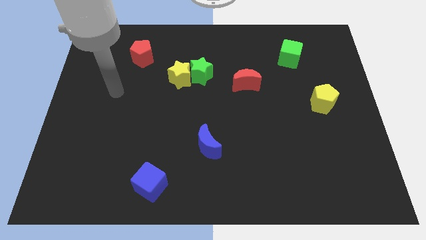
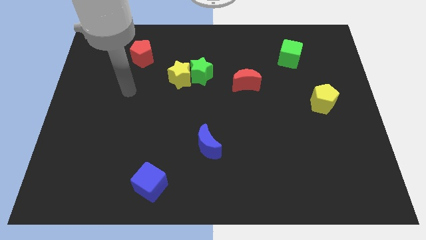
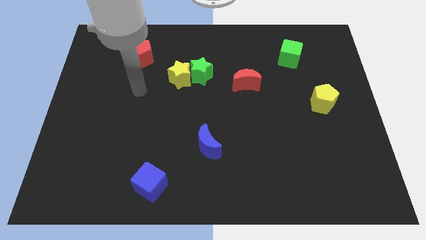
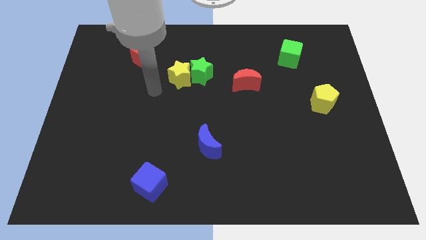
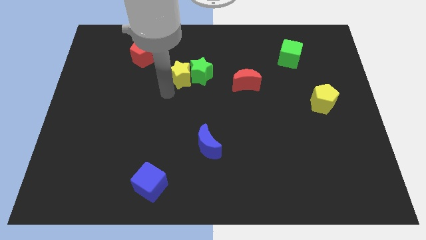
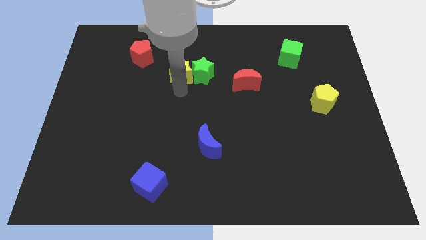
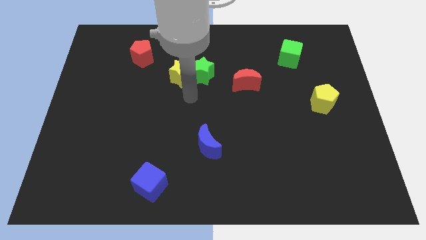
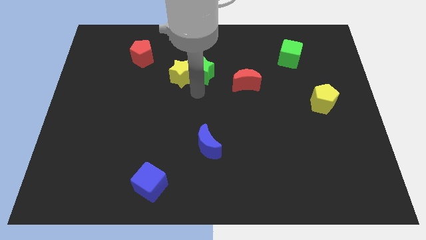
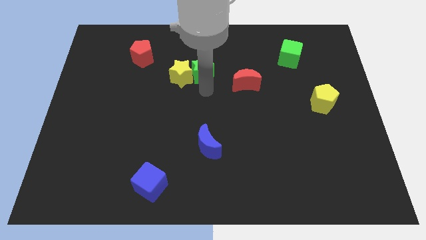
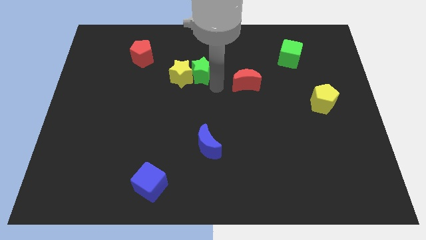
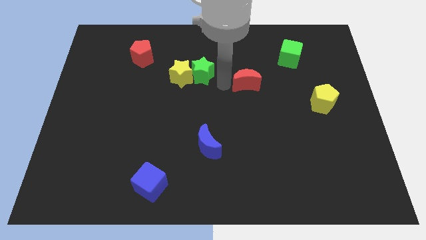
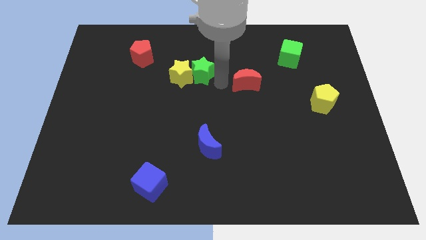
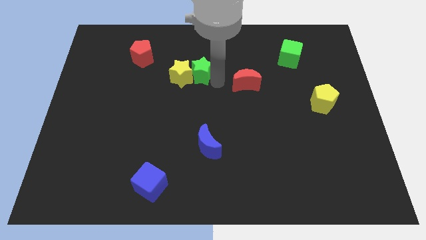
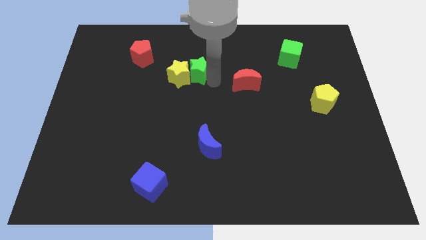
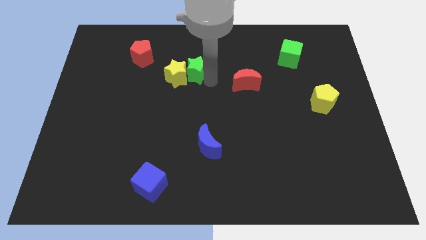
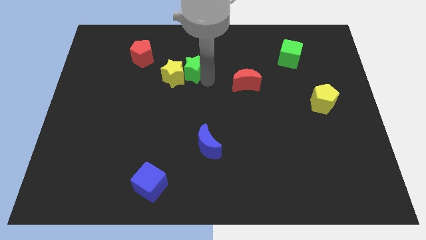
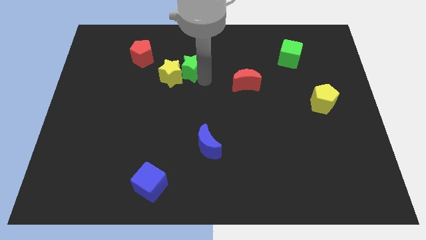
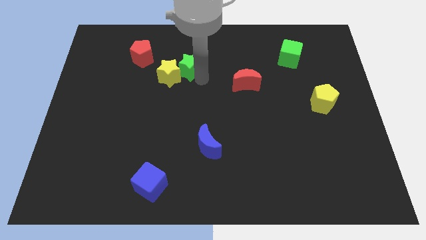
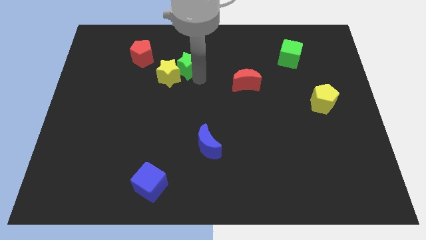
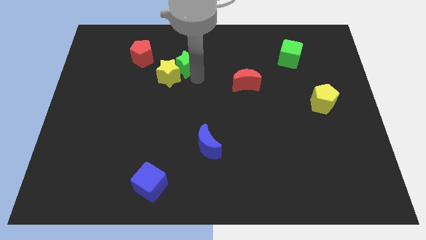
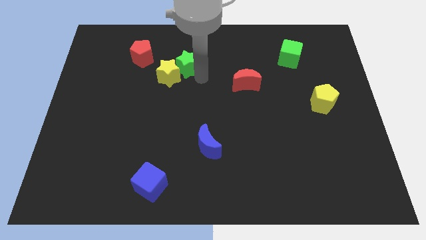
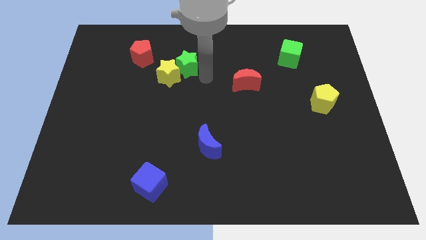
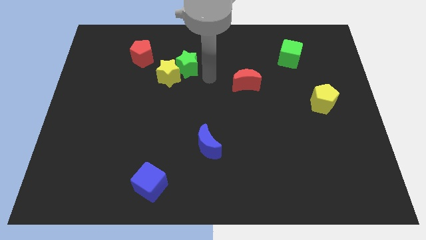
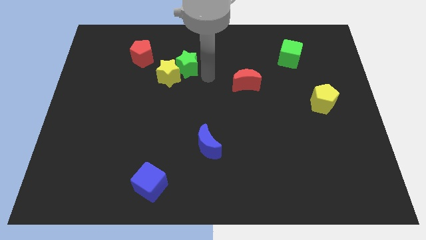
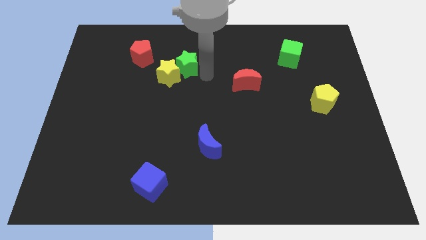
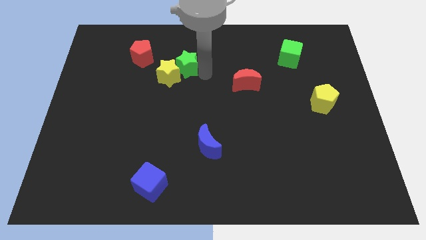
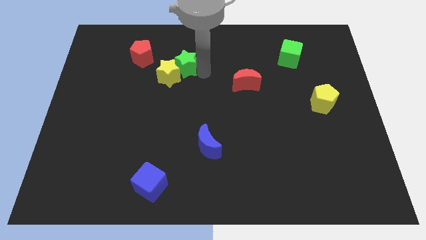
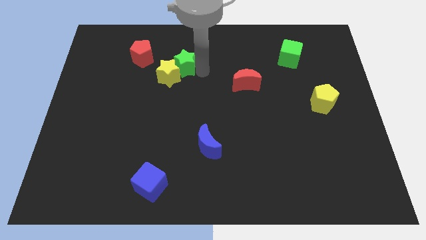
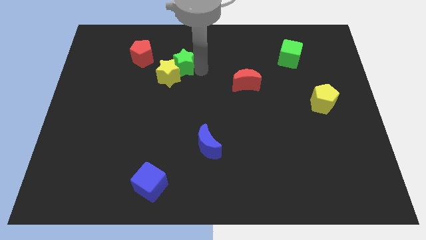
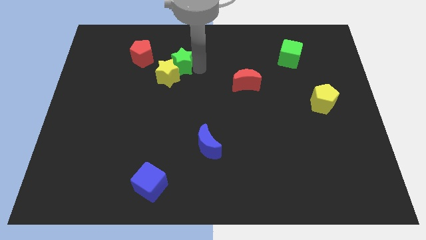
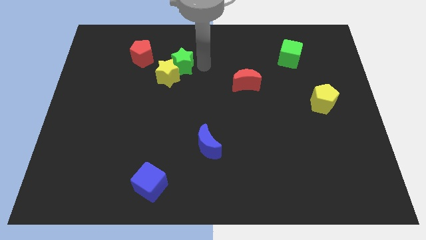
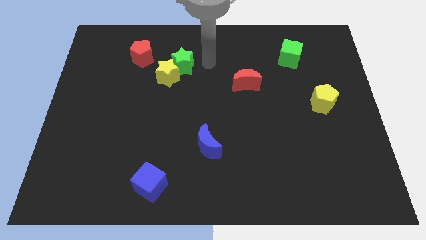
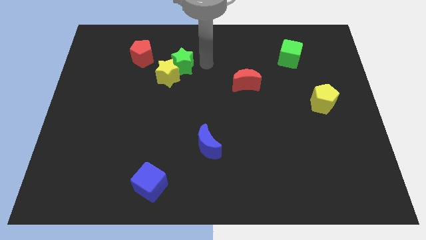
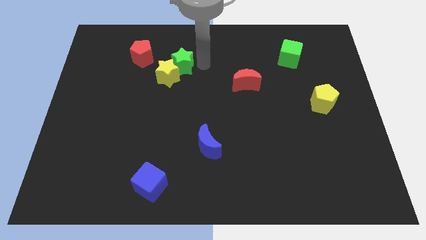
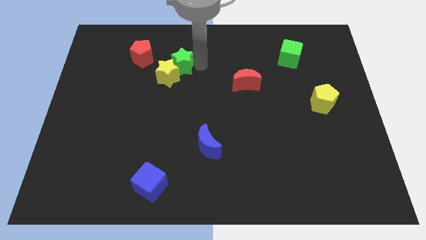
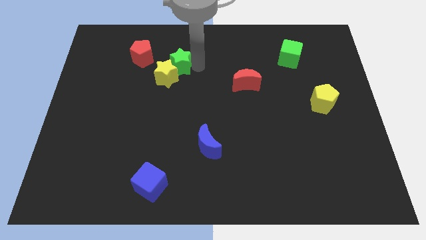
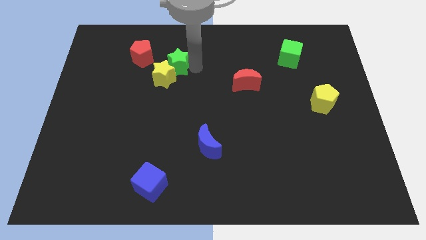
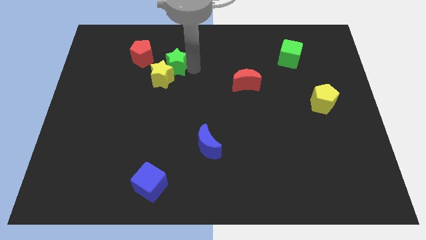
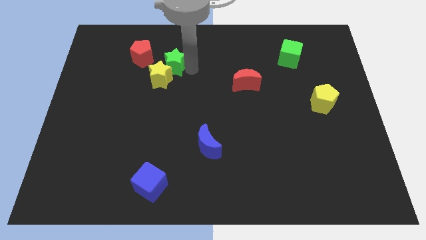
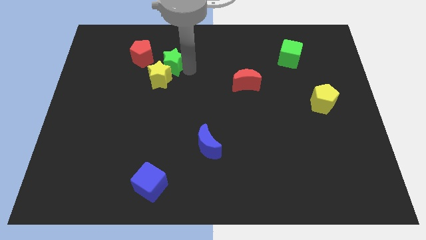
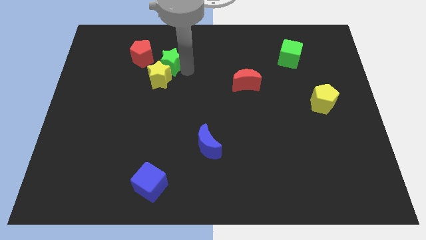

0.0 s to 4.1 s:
slightly slide the green star left

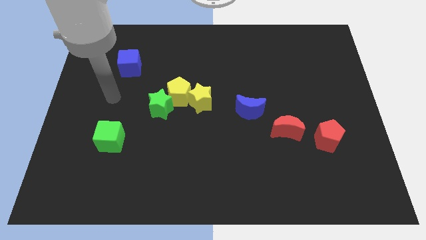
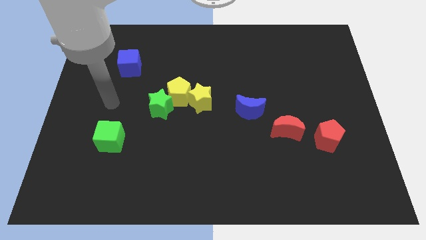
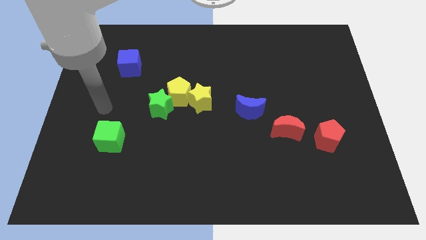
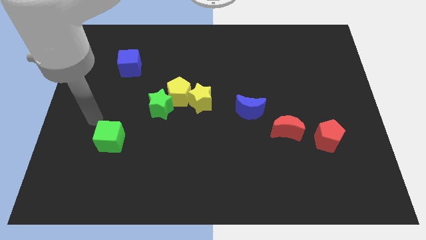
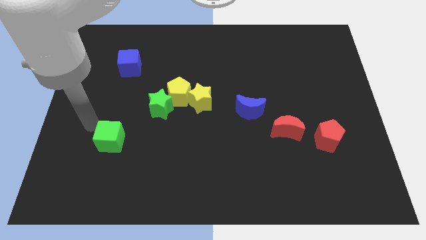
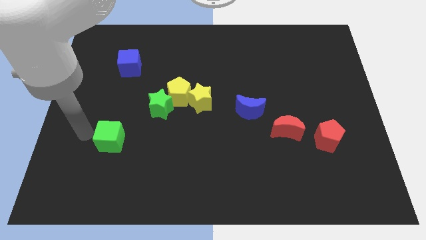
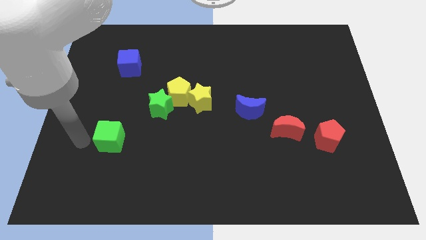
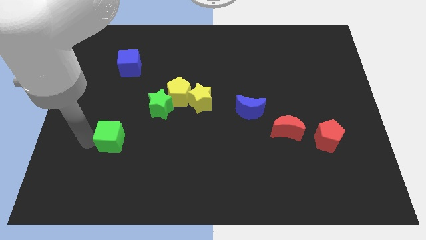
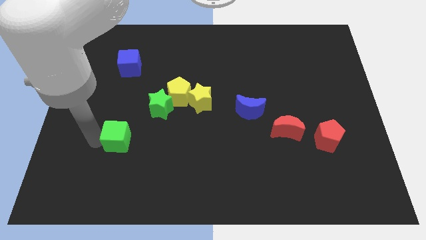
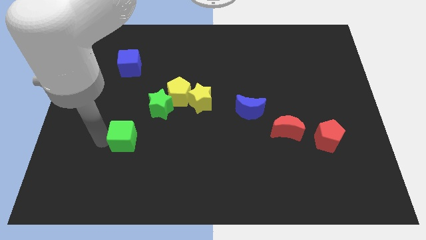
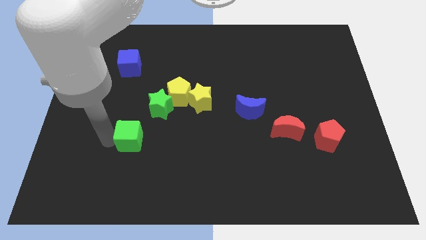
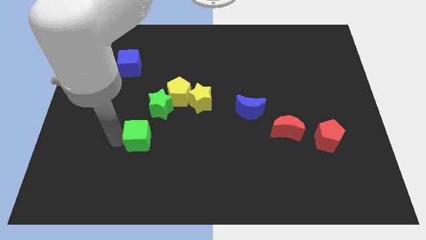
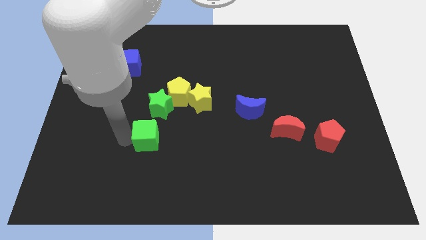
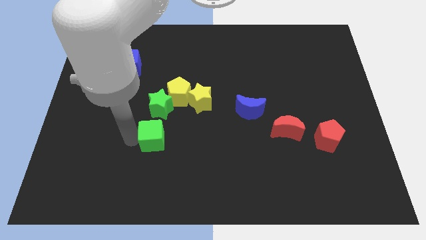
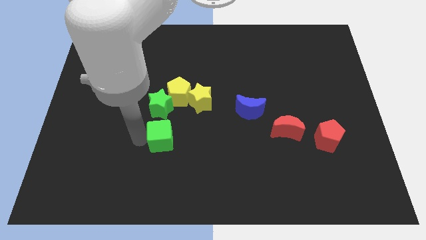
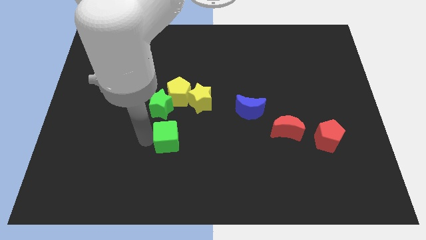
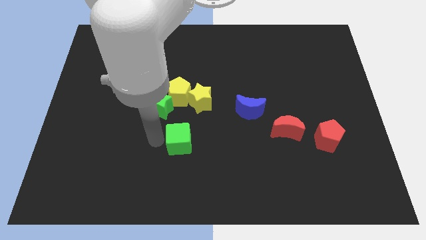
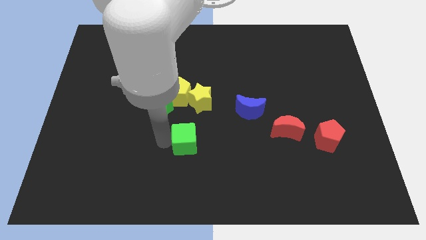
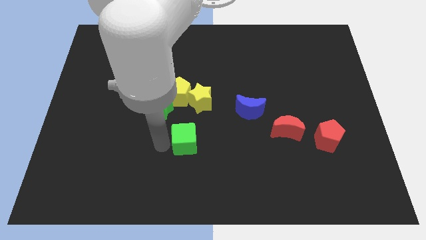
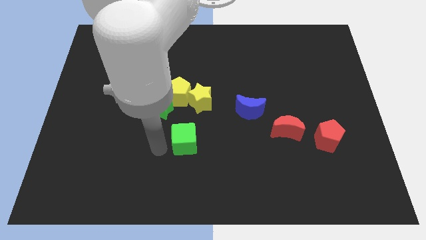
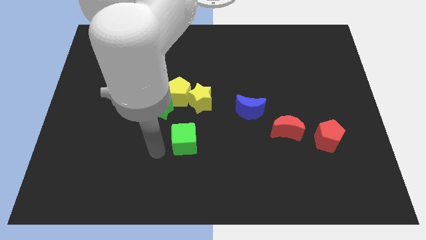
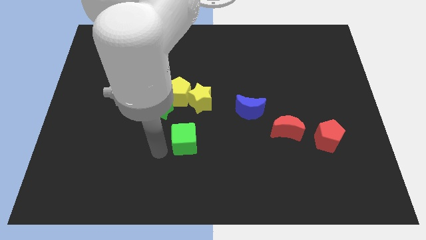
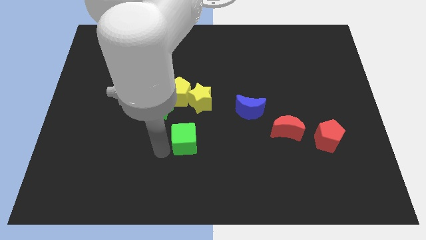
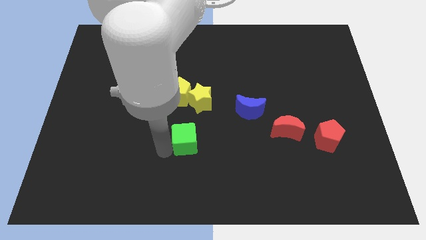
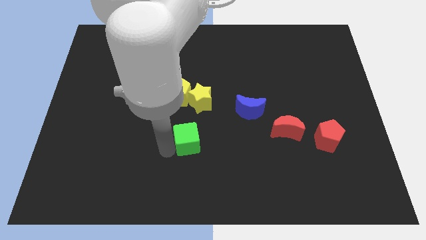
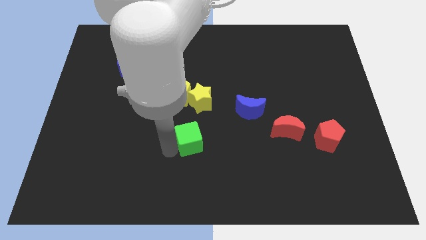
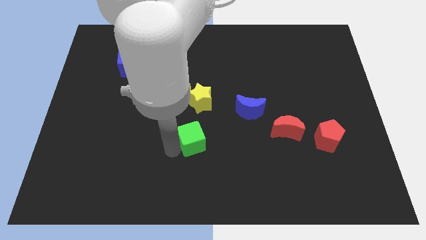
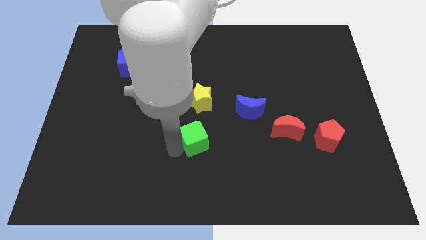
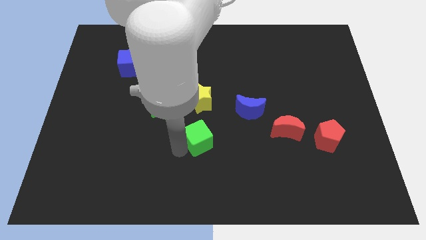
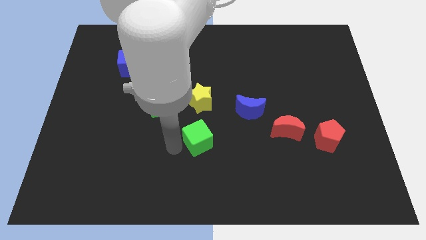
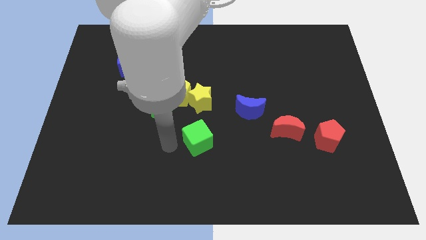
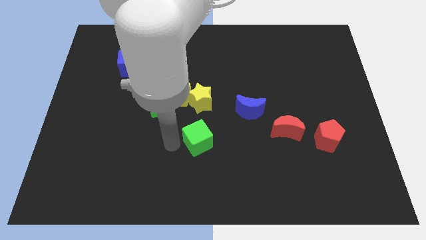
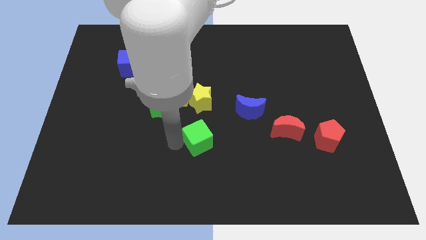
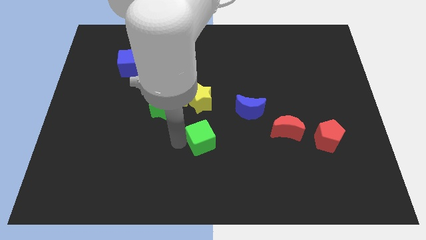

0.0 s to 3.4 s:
slide the green cube to the right

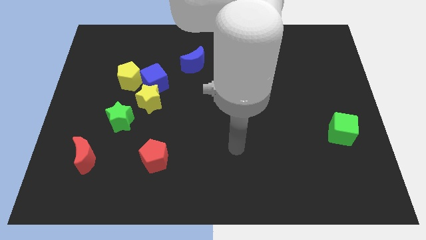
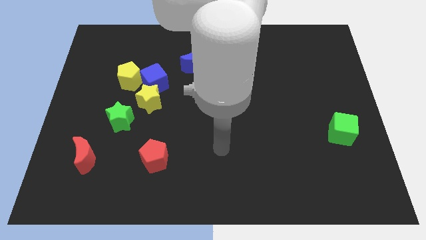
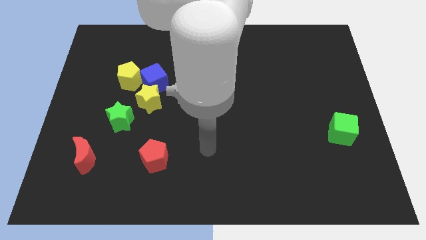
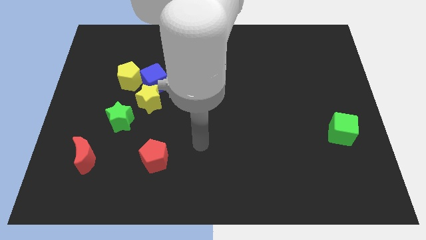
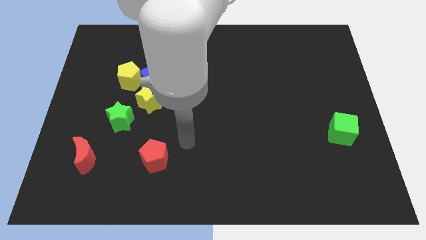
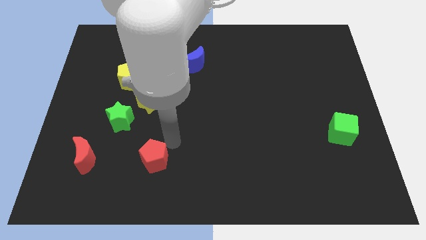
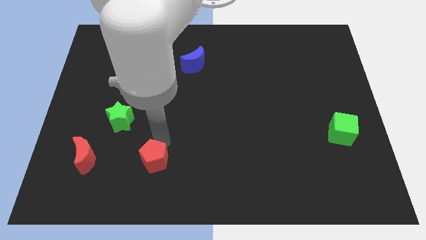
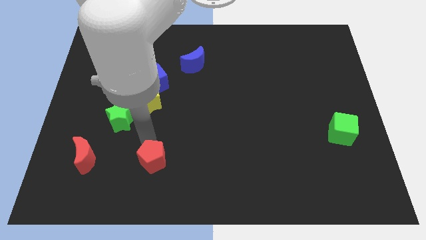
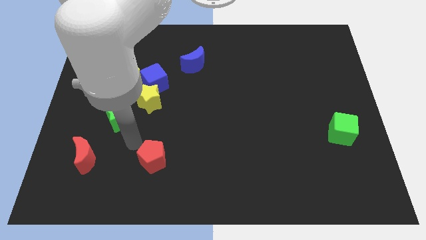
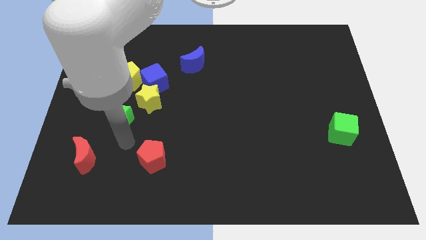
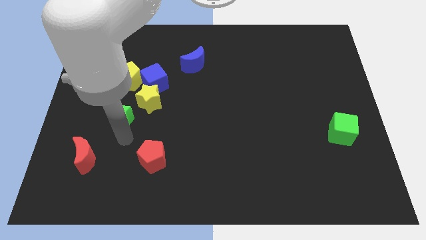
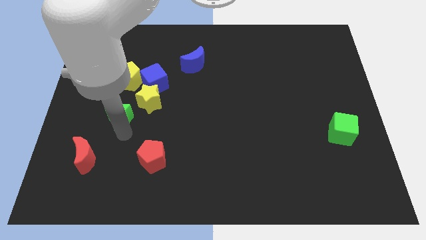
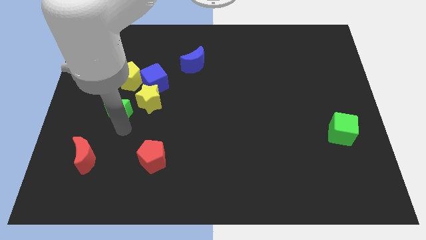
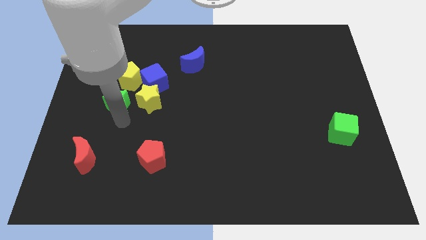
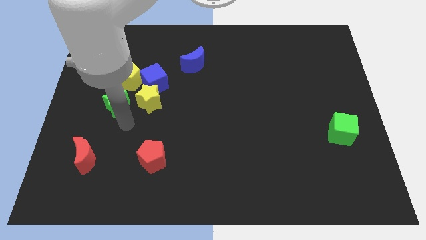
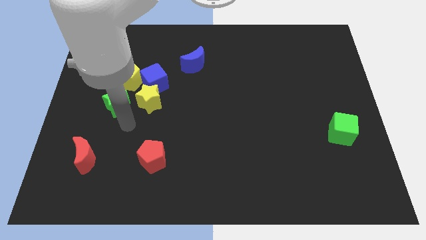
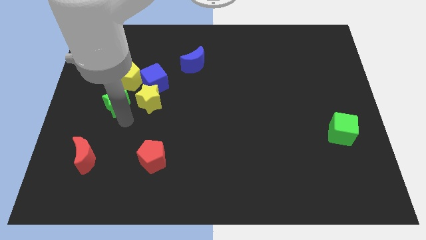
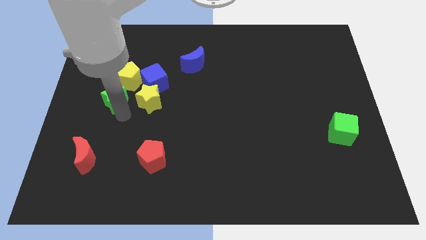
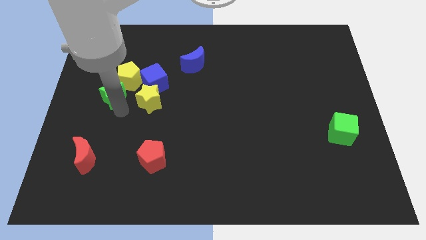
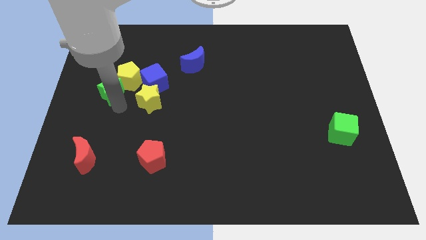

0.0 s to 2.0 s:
push the green star slightly upwards
